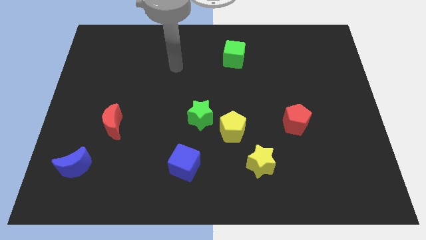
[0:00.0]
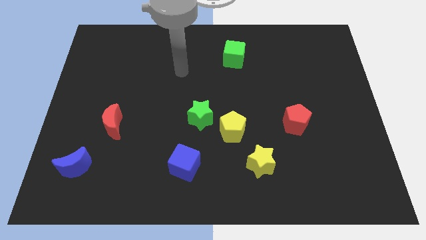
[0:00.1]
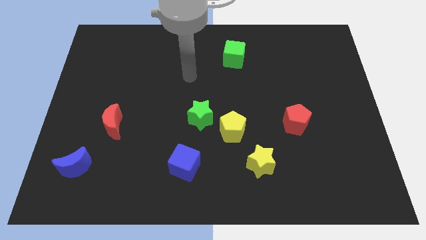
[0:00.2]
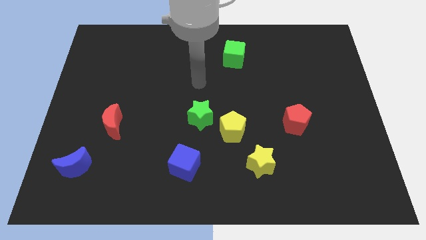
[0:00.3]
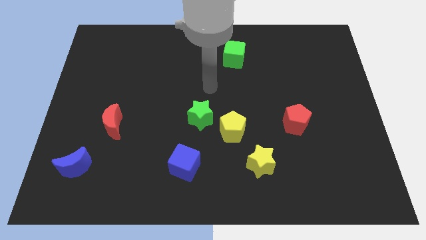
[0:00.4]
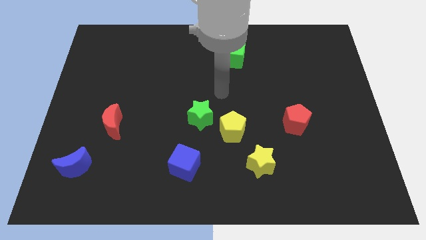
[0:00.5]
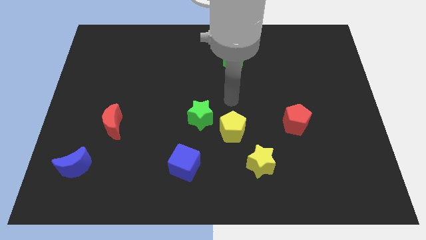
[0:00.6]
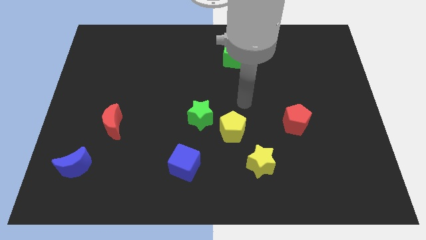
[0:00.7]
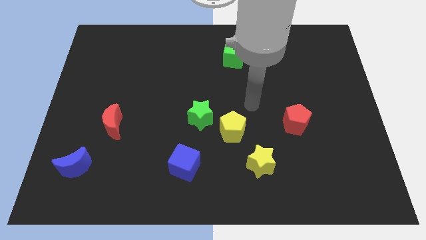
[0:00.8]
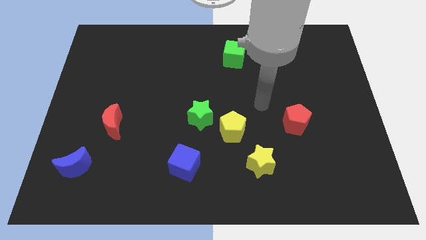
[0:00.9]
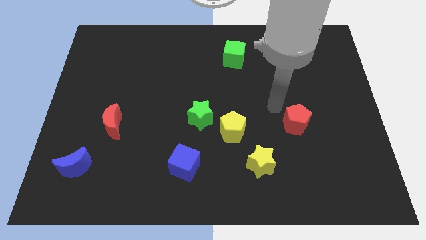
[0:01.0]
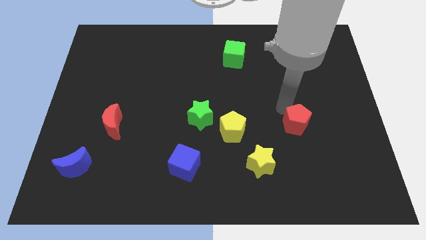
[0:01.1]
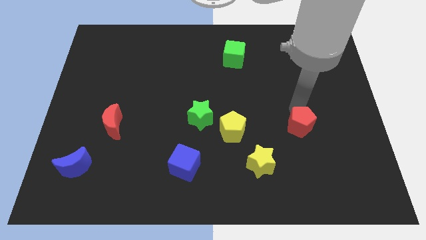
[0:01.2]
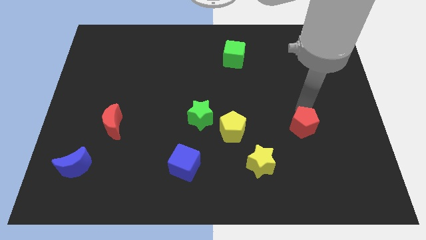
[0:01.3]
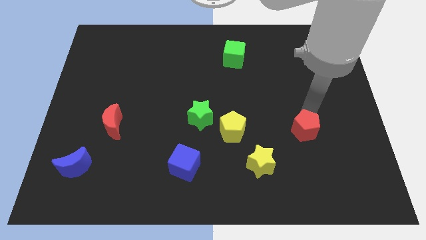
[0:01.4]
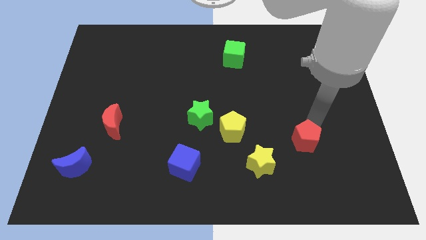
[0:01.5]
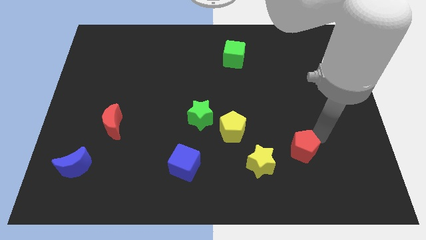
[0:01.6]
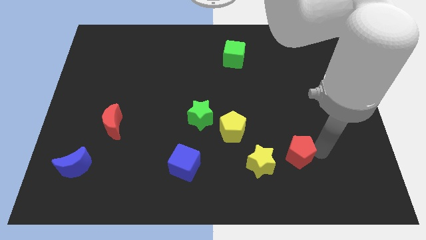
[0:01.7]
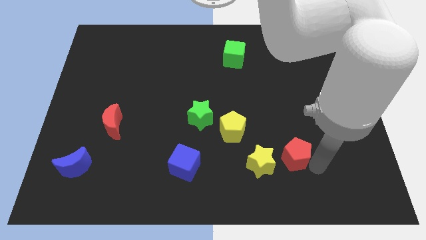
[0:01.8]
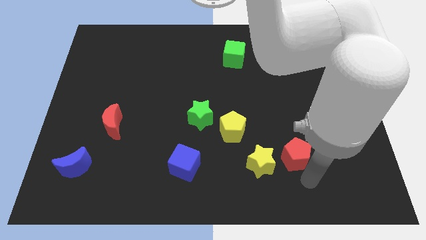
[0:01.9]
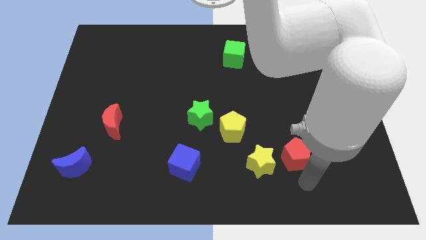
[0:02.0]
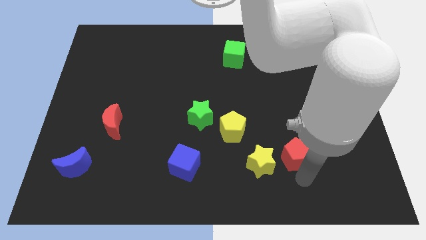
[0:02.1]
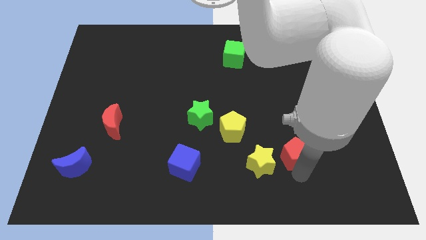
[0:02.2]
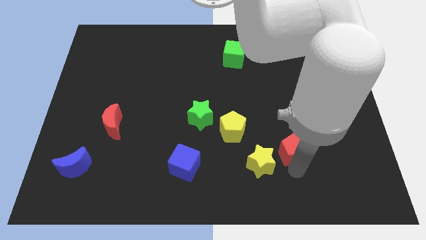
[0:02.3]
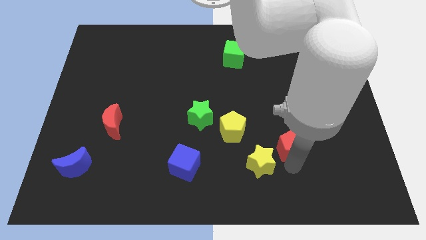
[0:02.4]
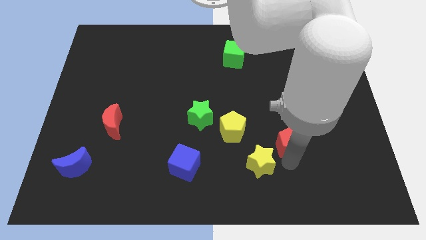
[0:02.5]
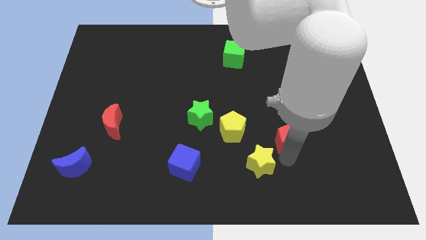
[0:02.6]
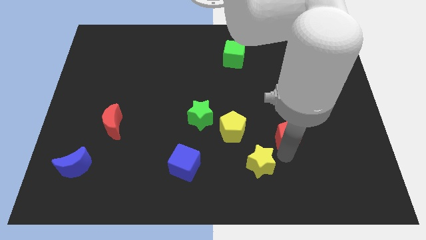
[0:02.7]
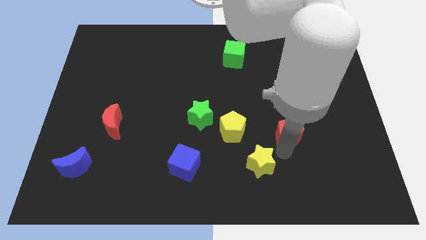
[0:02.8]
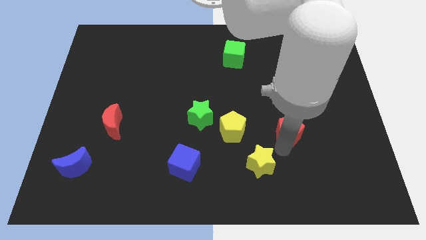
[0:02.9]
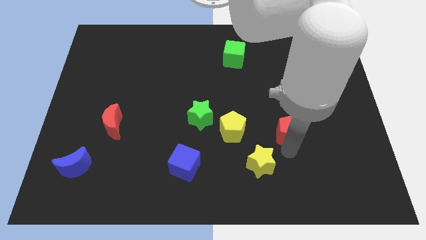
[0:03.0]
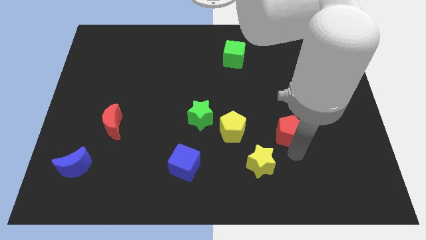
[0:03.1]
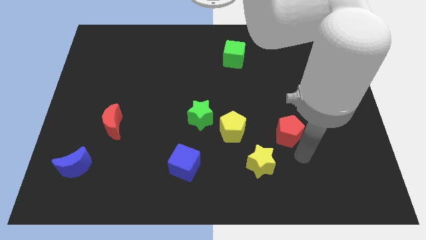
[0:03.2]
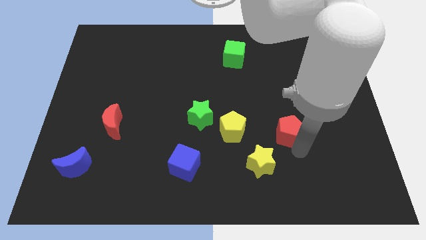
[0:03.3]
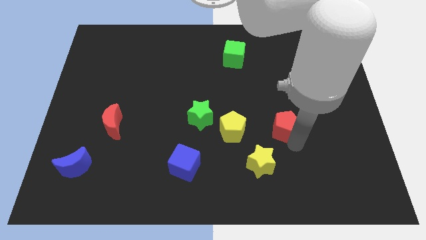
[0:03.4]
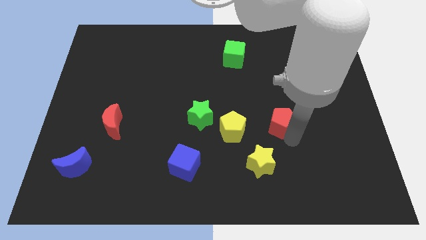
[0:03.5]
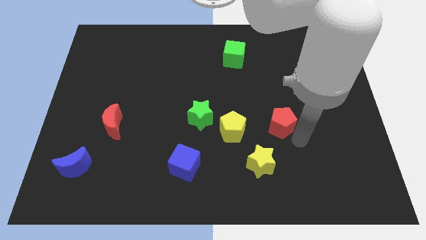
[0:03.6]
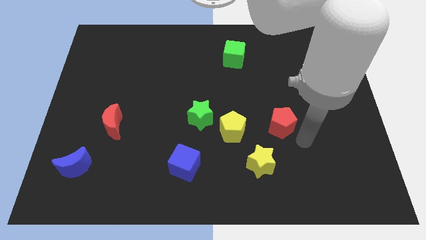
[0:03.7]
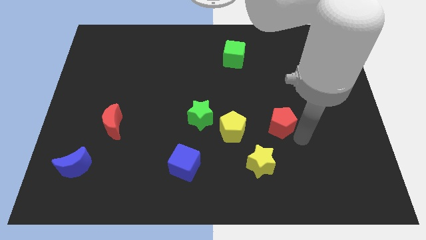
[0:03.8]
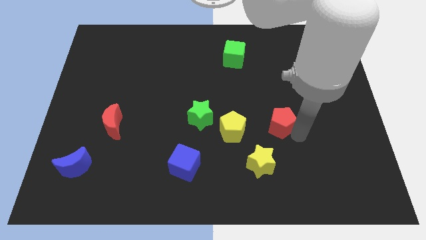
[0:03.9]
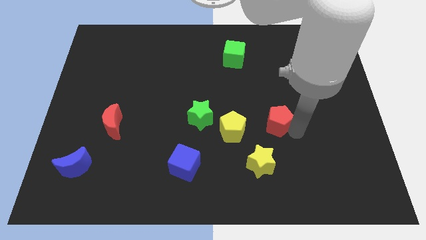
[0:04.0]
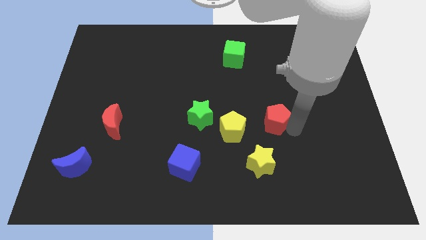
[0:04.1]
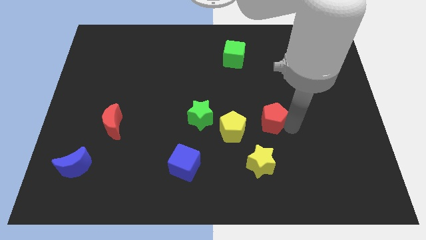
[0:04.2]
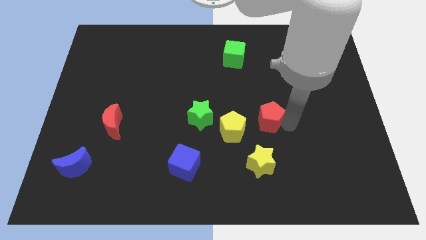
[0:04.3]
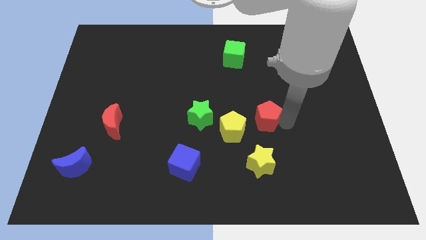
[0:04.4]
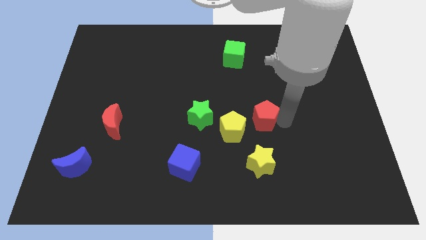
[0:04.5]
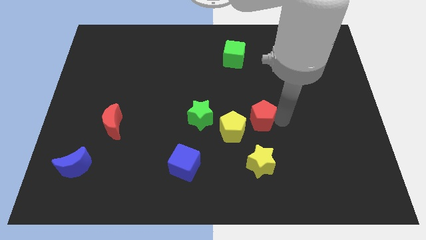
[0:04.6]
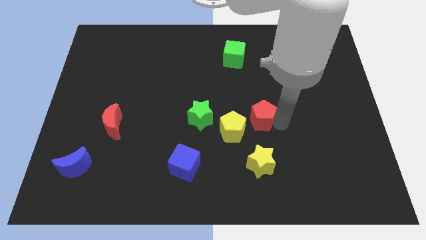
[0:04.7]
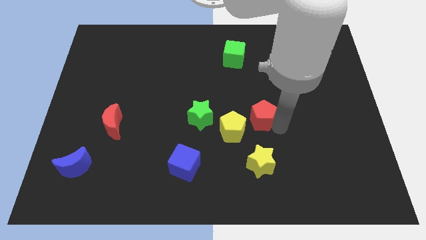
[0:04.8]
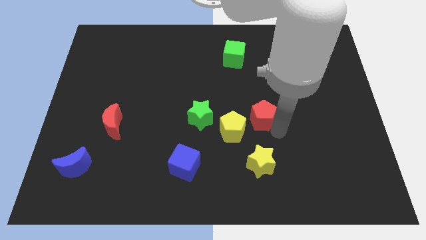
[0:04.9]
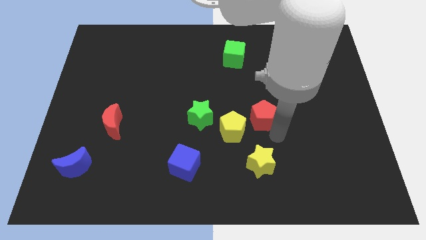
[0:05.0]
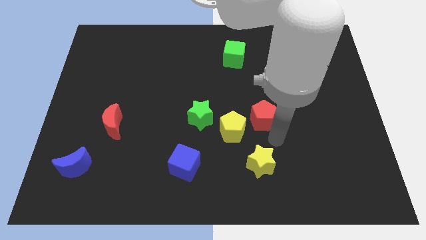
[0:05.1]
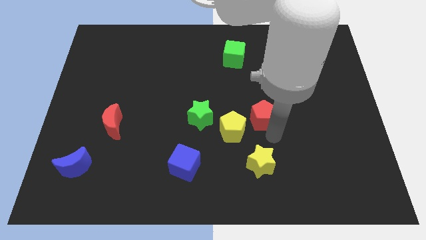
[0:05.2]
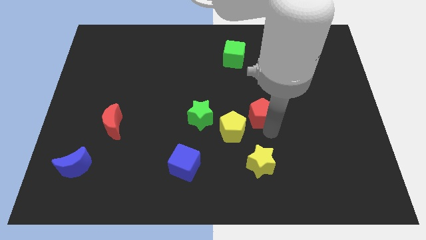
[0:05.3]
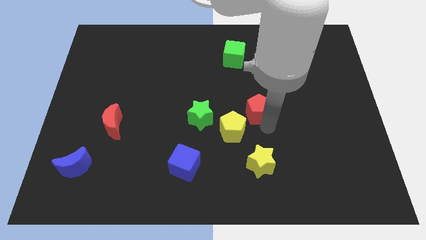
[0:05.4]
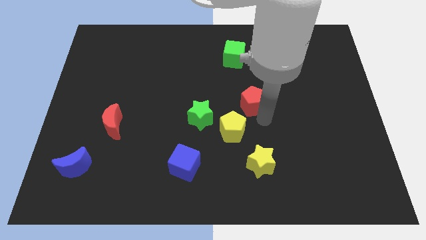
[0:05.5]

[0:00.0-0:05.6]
move the red pentagon to the top side of the yellow pentagon

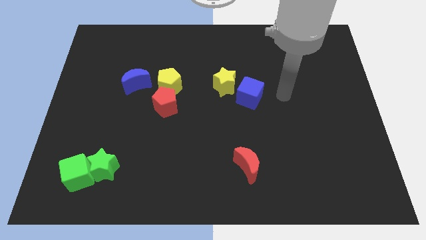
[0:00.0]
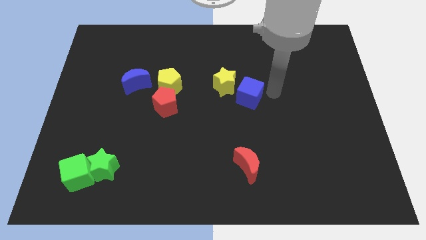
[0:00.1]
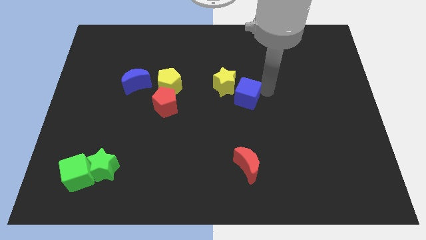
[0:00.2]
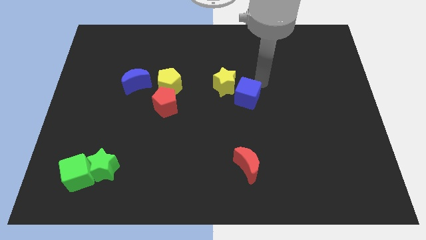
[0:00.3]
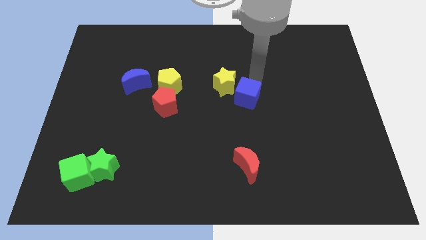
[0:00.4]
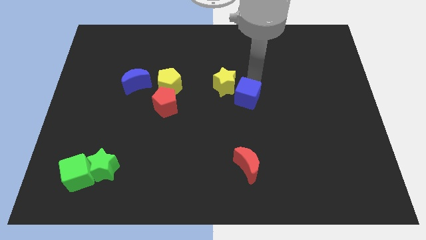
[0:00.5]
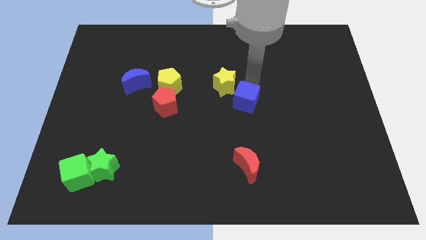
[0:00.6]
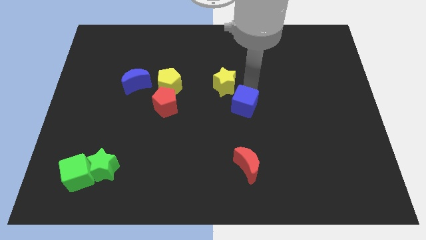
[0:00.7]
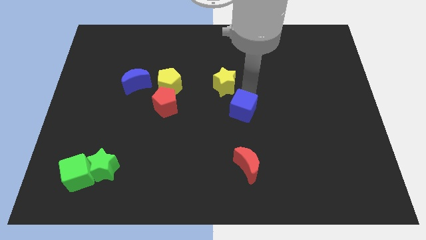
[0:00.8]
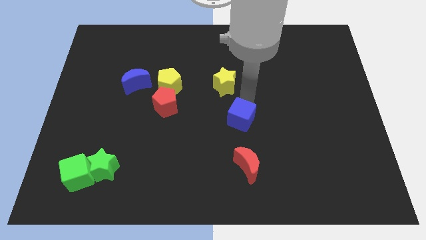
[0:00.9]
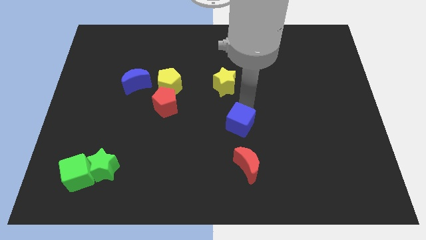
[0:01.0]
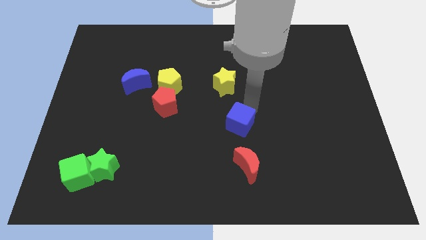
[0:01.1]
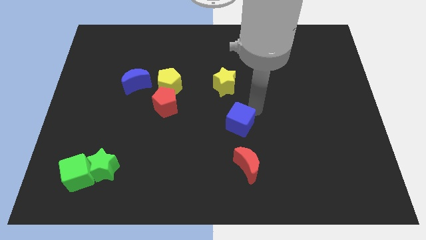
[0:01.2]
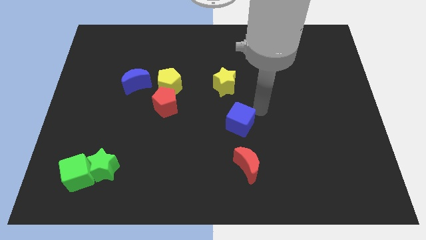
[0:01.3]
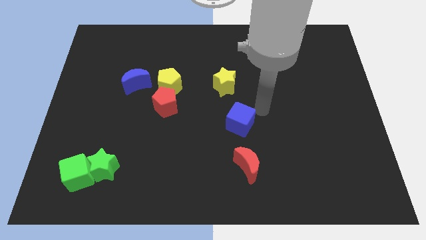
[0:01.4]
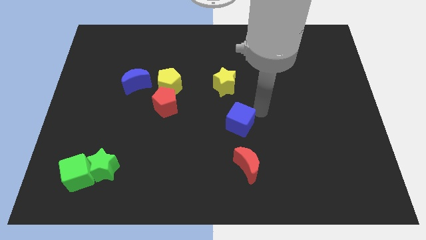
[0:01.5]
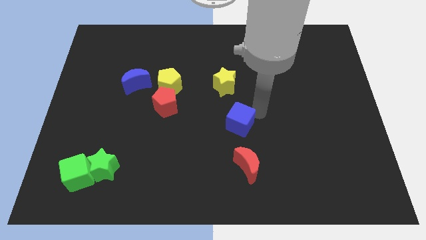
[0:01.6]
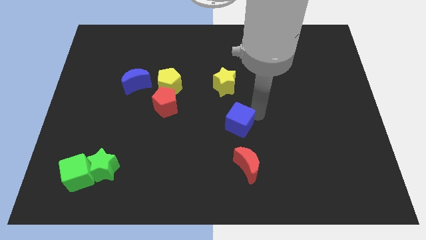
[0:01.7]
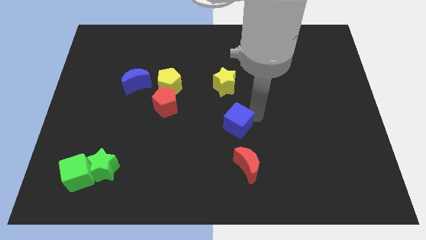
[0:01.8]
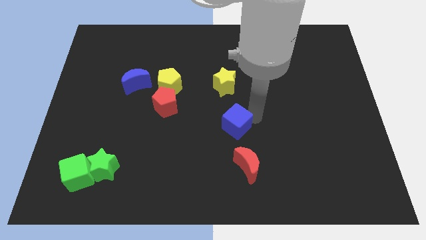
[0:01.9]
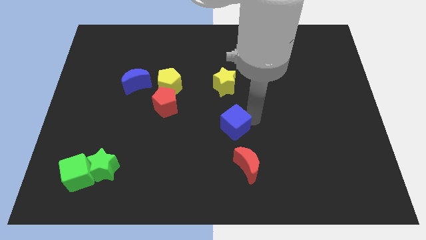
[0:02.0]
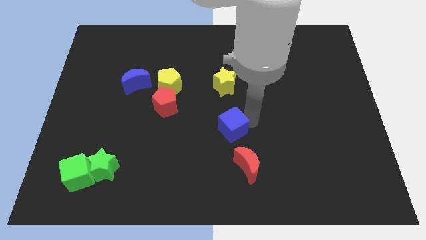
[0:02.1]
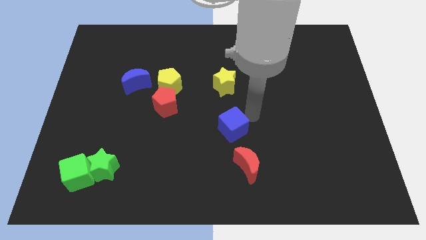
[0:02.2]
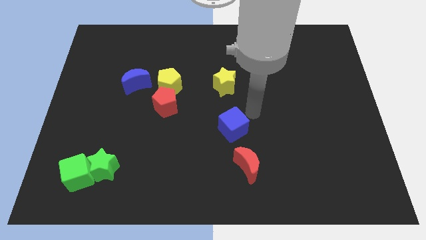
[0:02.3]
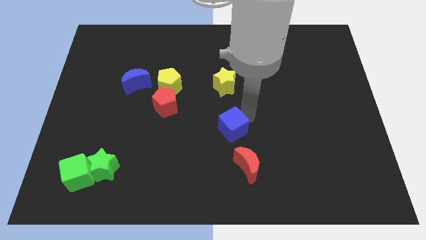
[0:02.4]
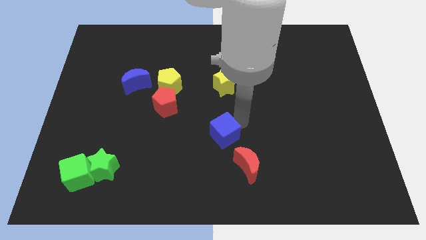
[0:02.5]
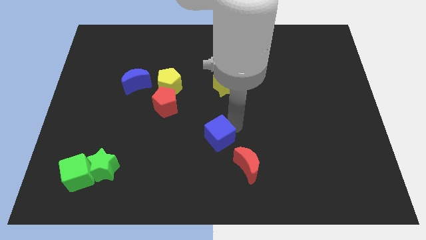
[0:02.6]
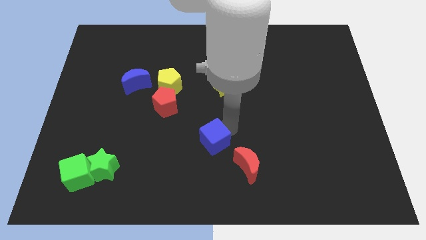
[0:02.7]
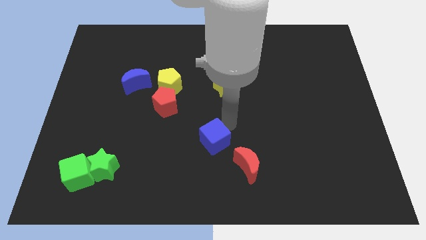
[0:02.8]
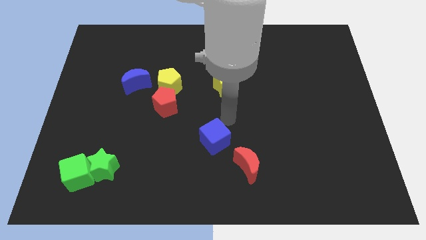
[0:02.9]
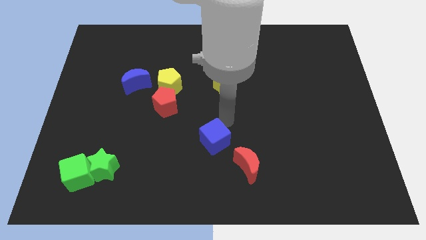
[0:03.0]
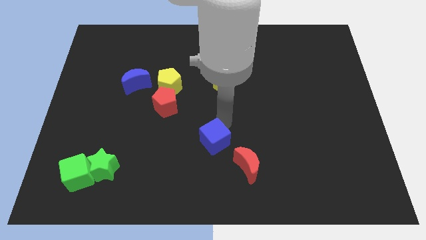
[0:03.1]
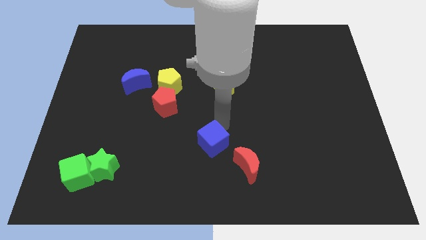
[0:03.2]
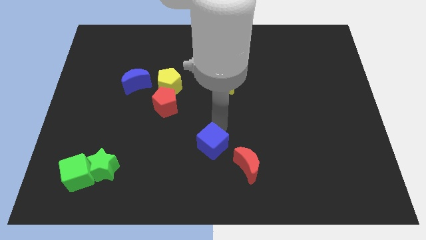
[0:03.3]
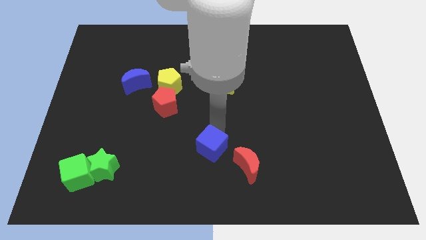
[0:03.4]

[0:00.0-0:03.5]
put the blue cube left of the red moon
